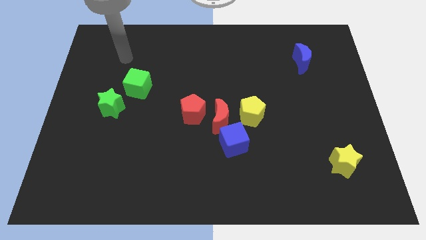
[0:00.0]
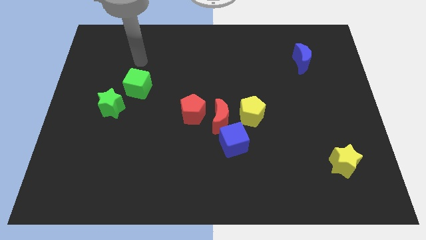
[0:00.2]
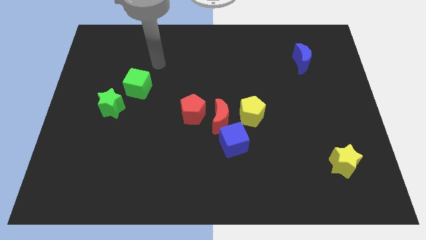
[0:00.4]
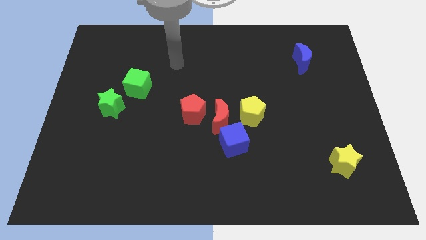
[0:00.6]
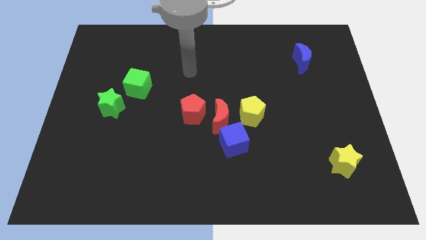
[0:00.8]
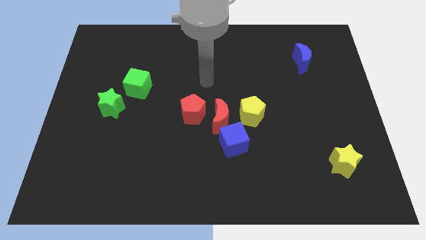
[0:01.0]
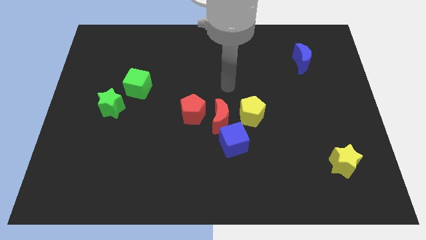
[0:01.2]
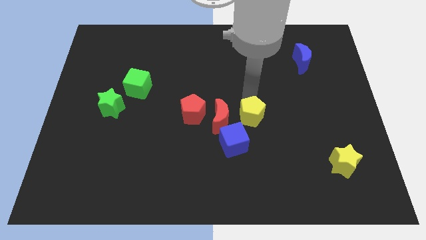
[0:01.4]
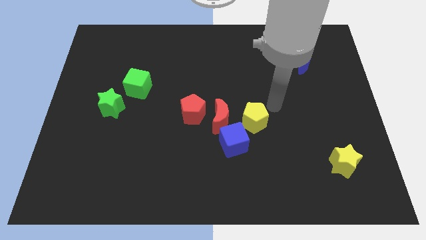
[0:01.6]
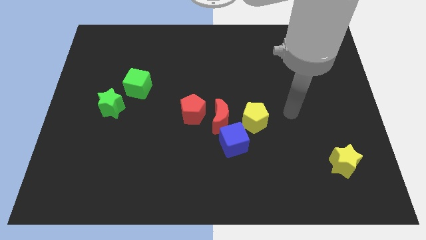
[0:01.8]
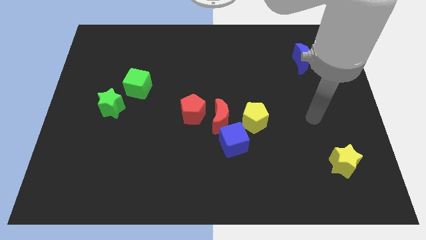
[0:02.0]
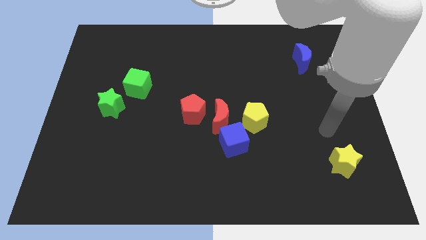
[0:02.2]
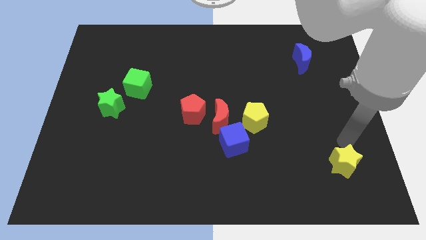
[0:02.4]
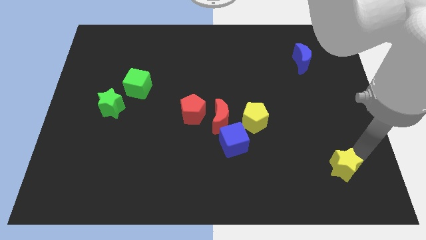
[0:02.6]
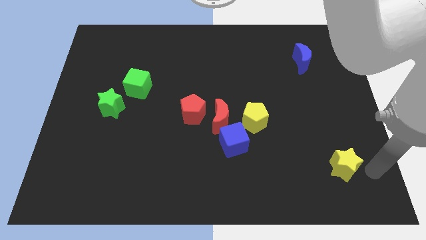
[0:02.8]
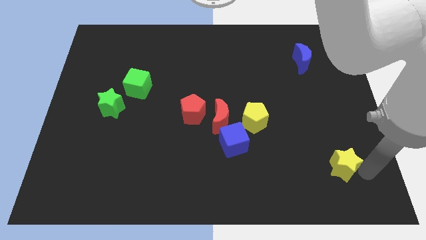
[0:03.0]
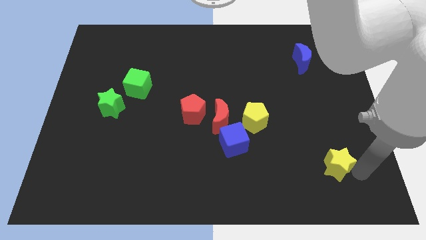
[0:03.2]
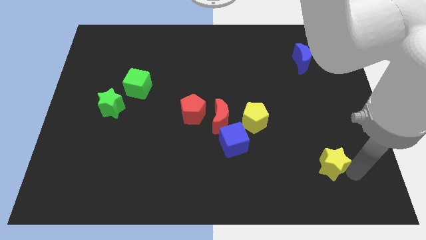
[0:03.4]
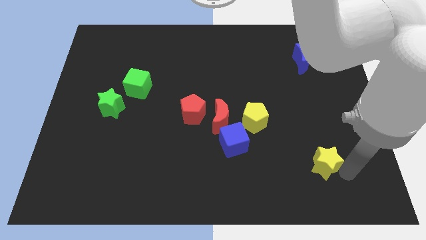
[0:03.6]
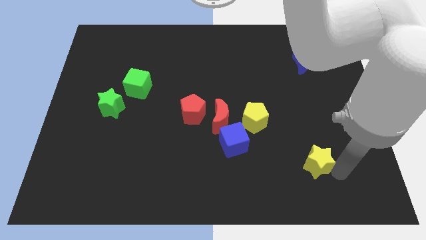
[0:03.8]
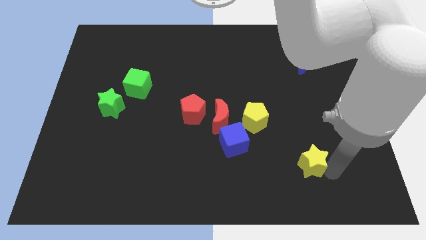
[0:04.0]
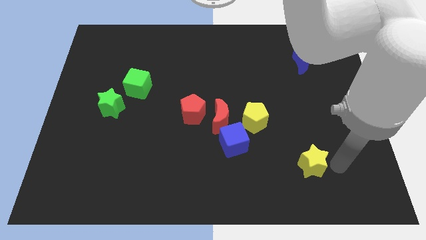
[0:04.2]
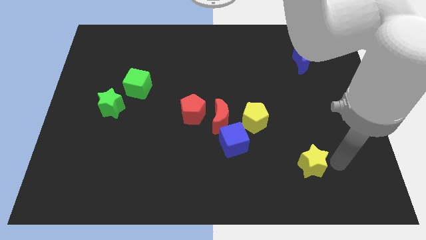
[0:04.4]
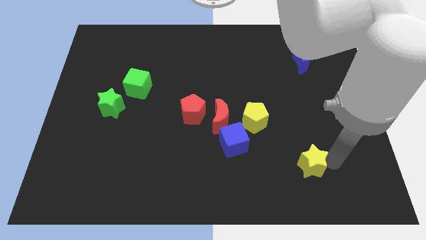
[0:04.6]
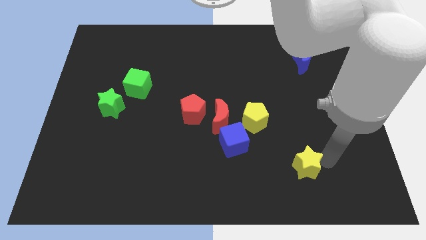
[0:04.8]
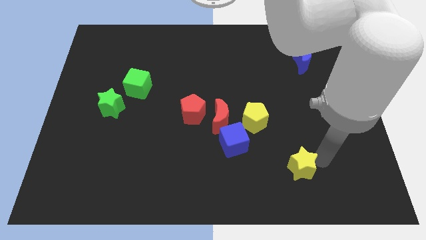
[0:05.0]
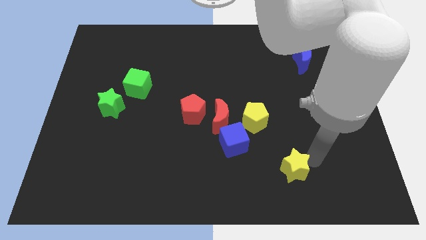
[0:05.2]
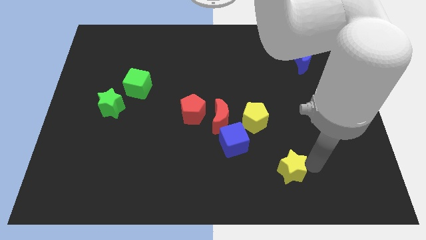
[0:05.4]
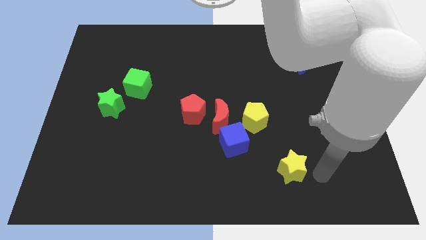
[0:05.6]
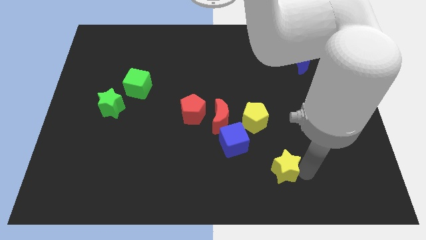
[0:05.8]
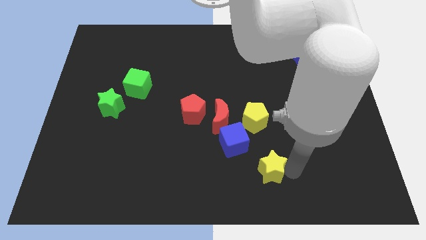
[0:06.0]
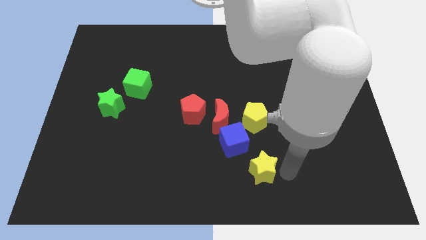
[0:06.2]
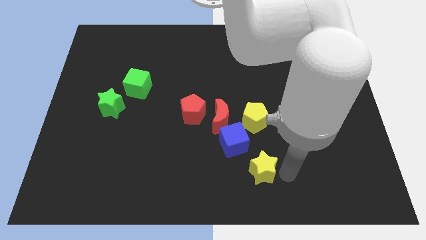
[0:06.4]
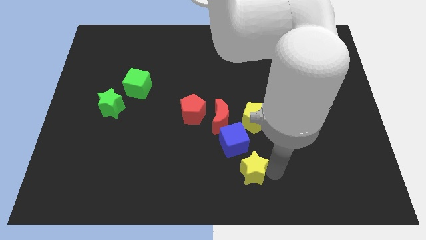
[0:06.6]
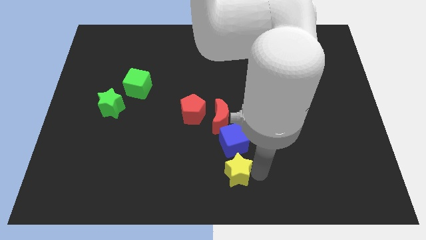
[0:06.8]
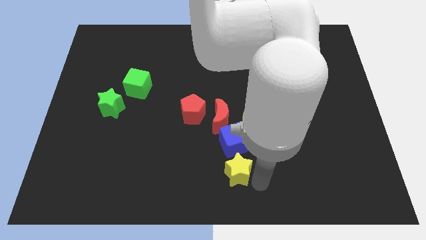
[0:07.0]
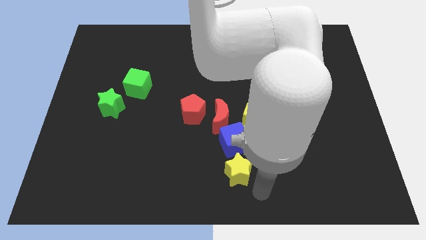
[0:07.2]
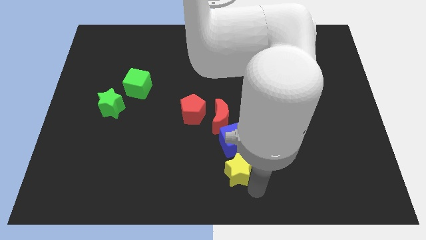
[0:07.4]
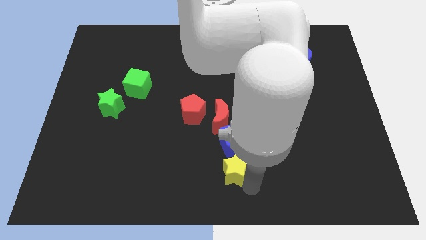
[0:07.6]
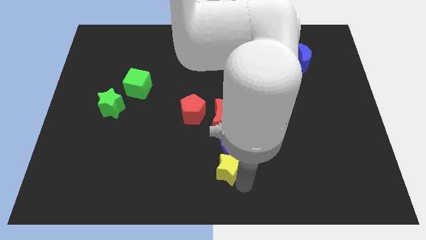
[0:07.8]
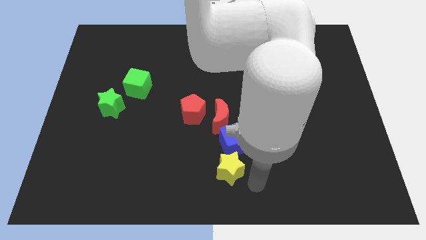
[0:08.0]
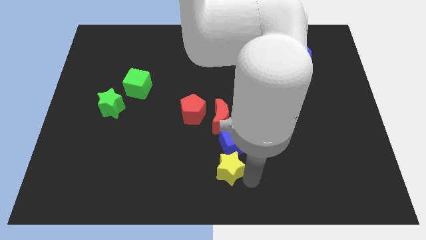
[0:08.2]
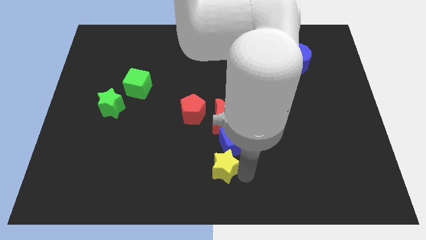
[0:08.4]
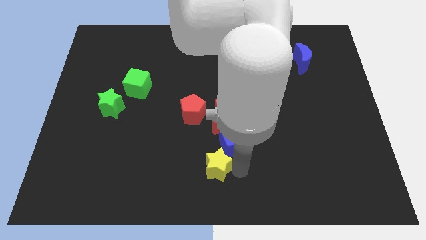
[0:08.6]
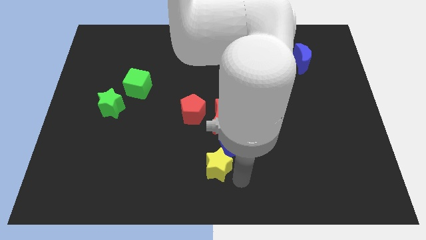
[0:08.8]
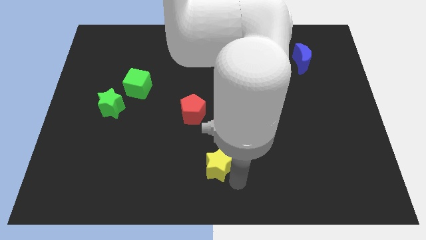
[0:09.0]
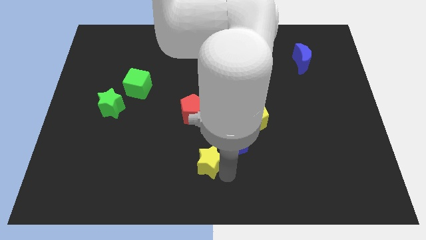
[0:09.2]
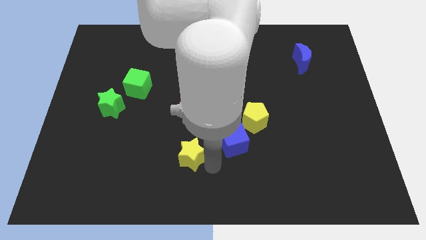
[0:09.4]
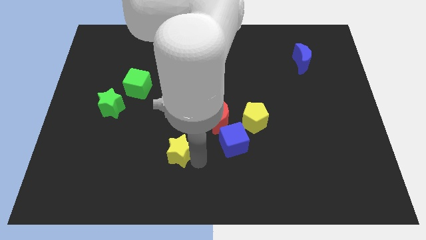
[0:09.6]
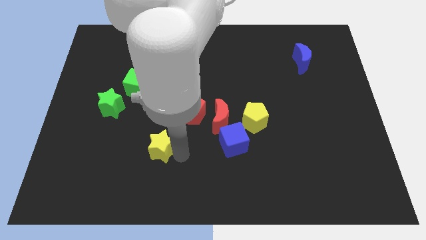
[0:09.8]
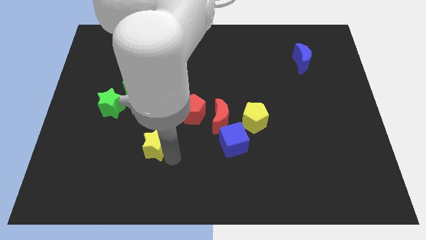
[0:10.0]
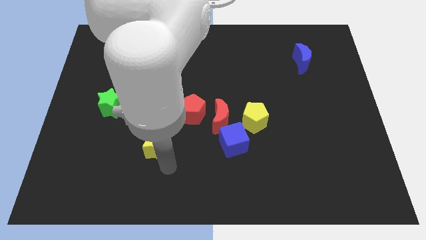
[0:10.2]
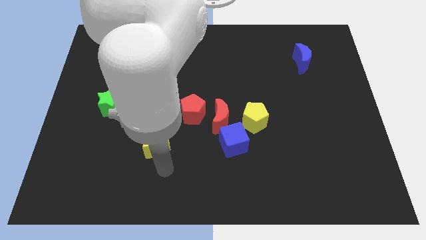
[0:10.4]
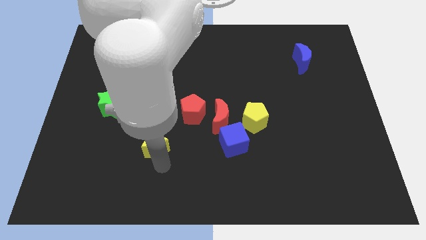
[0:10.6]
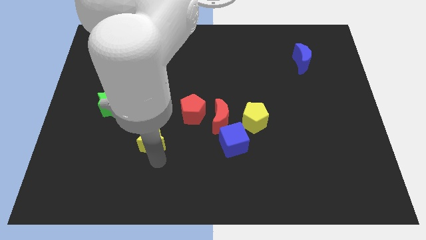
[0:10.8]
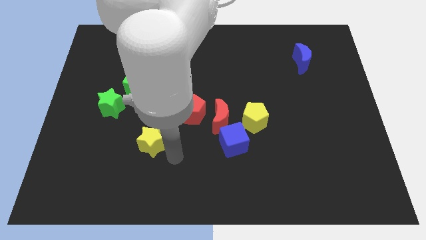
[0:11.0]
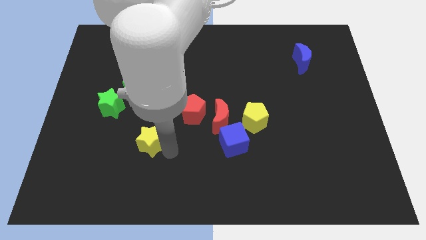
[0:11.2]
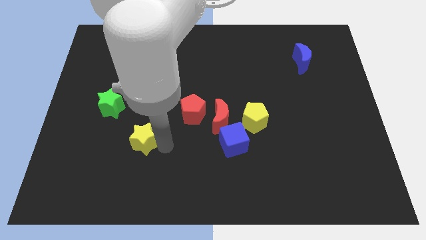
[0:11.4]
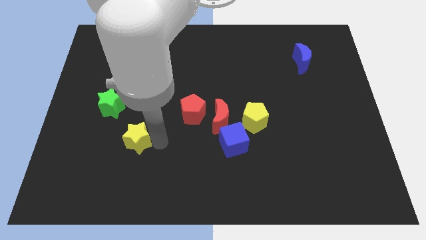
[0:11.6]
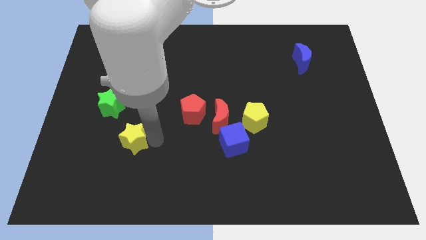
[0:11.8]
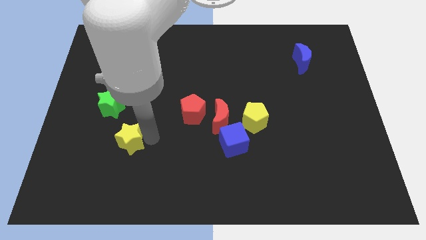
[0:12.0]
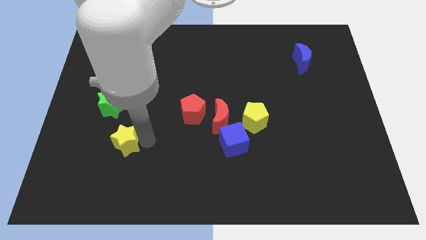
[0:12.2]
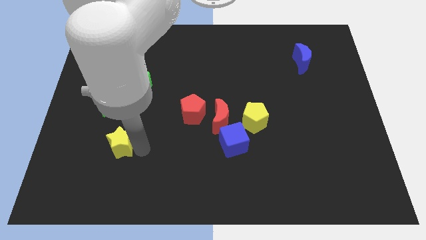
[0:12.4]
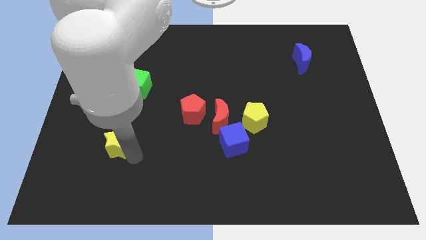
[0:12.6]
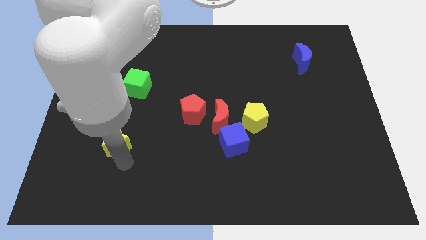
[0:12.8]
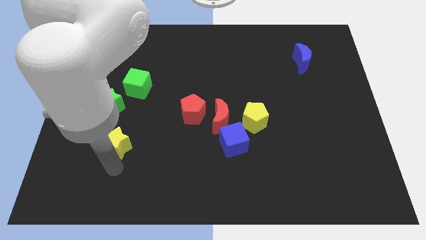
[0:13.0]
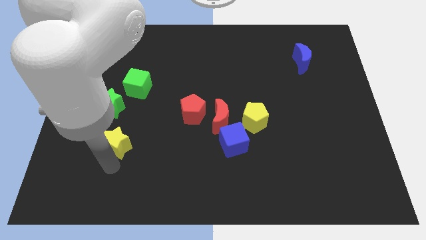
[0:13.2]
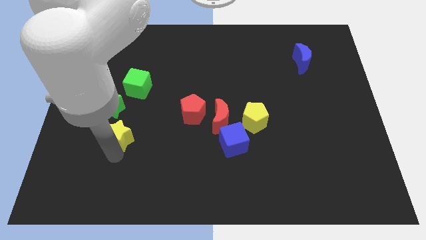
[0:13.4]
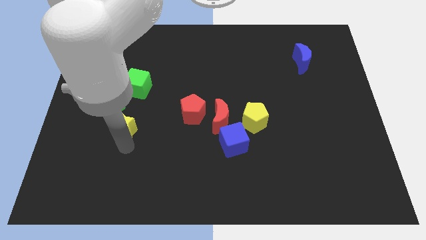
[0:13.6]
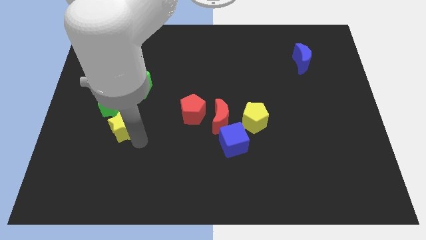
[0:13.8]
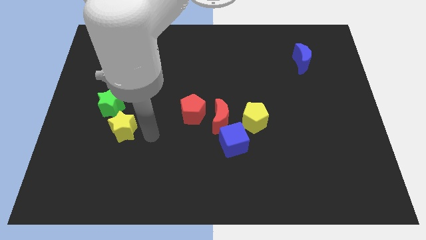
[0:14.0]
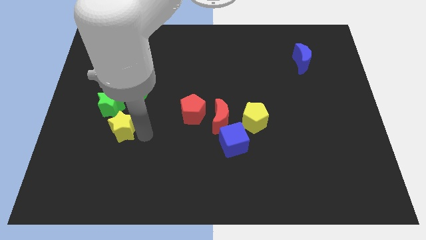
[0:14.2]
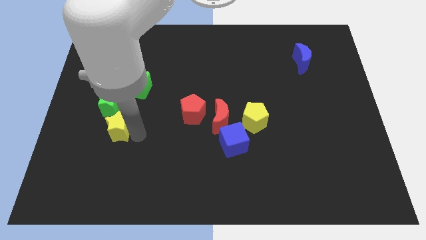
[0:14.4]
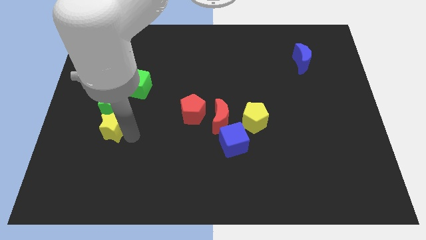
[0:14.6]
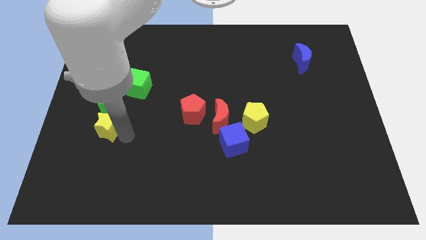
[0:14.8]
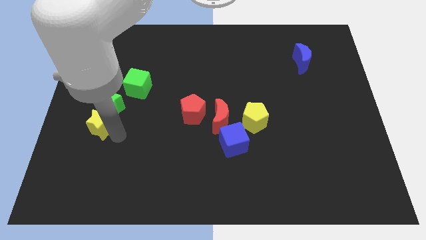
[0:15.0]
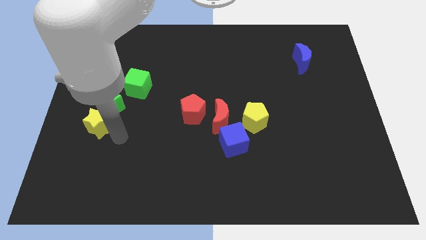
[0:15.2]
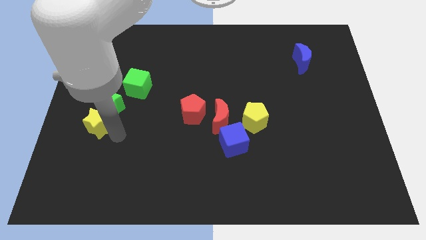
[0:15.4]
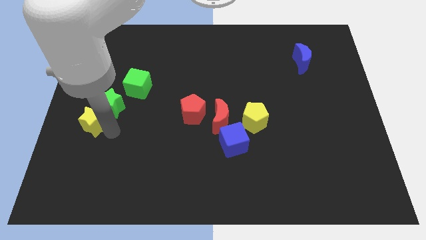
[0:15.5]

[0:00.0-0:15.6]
put the yellow star to the left side of the board
